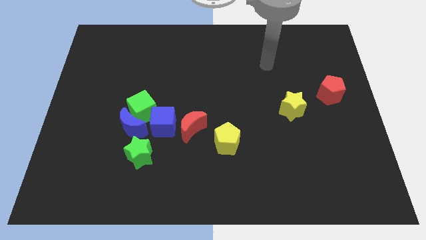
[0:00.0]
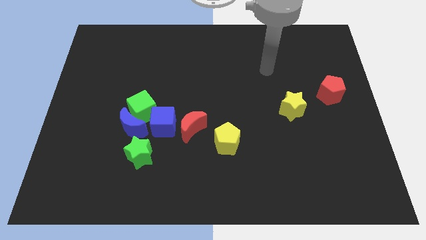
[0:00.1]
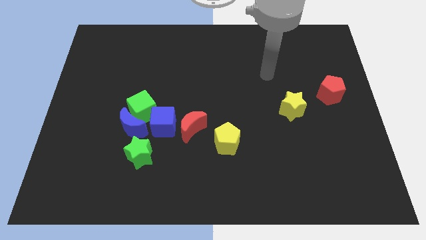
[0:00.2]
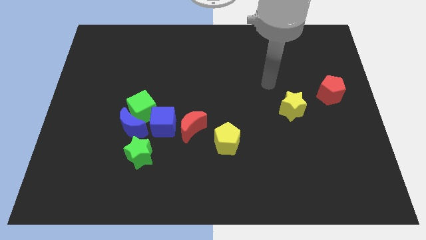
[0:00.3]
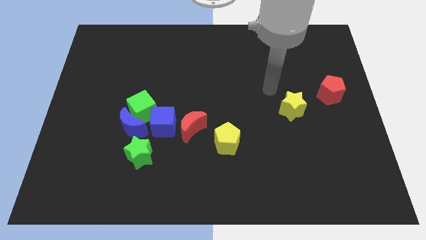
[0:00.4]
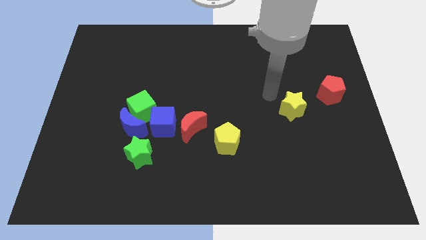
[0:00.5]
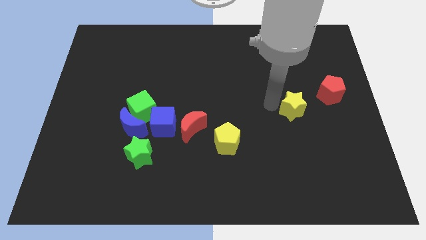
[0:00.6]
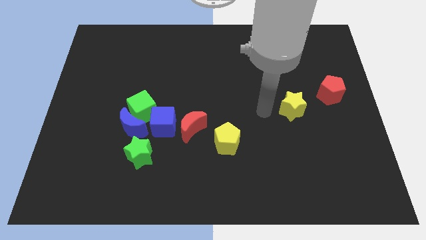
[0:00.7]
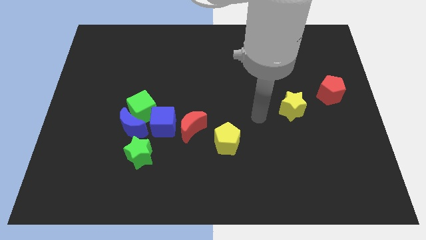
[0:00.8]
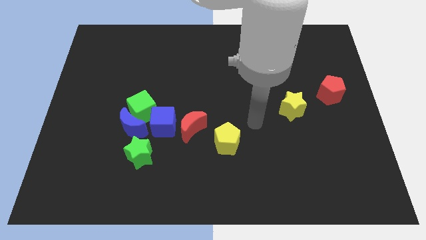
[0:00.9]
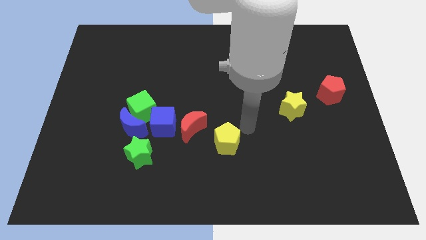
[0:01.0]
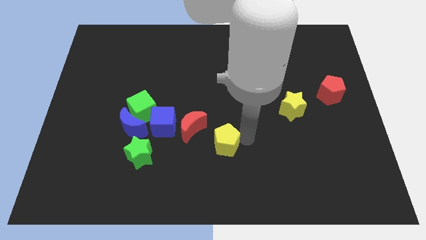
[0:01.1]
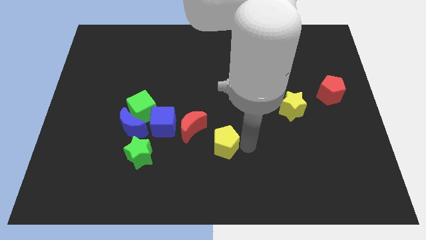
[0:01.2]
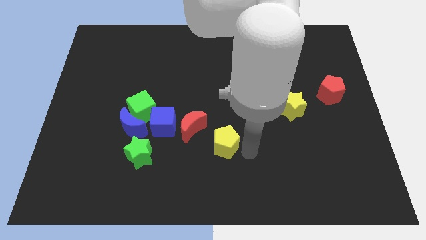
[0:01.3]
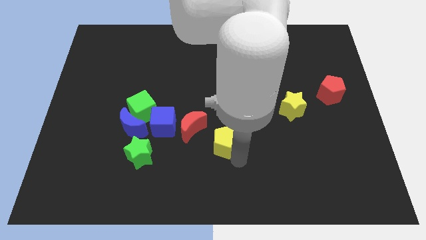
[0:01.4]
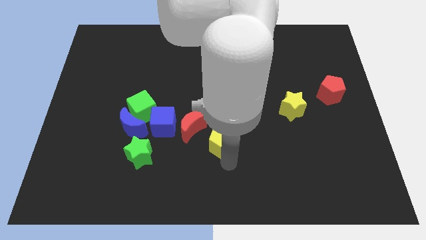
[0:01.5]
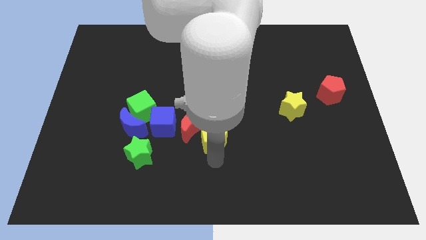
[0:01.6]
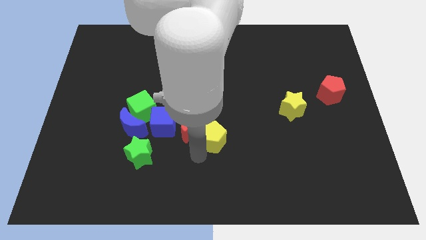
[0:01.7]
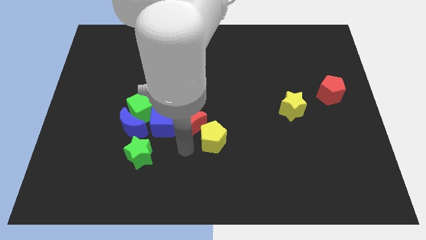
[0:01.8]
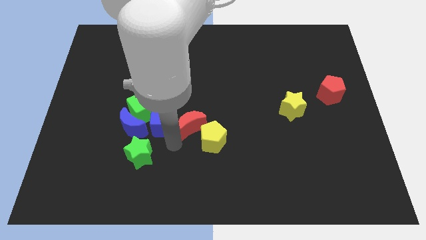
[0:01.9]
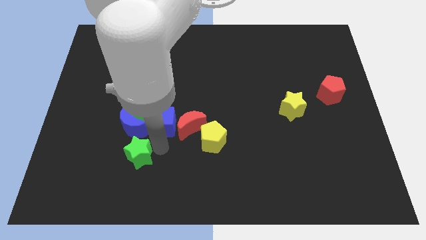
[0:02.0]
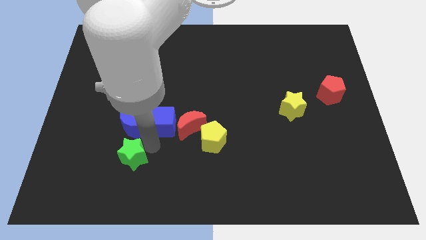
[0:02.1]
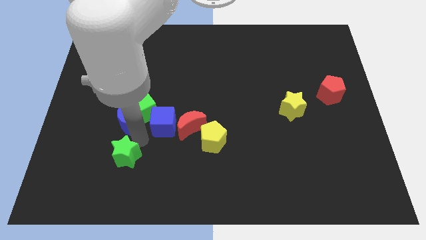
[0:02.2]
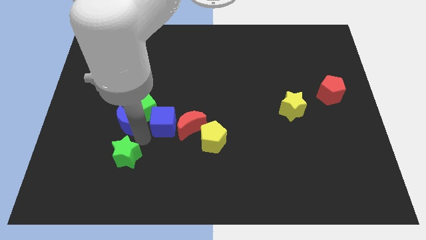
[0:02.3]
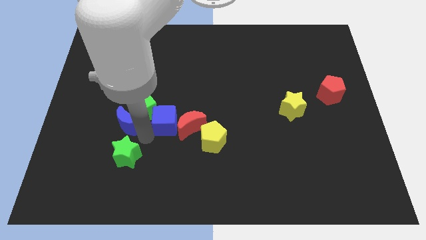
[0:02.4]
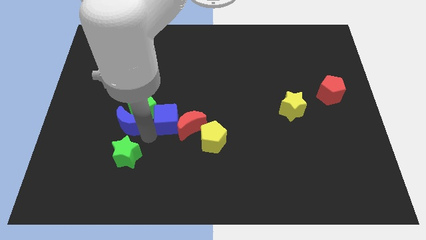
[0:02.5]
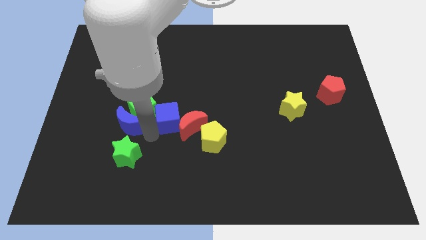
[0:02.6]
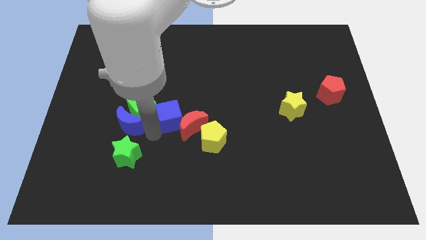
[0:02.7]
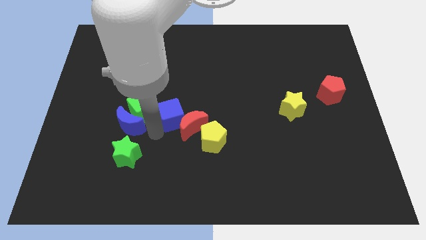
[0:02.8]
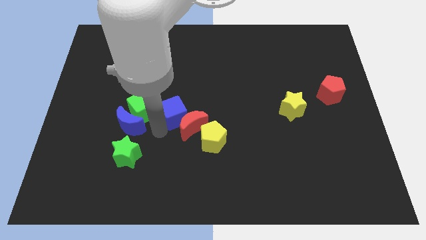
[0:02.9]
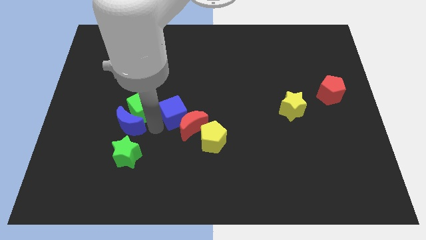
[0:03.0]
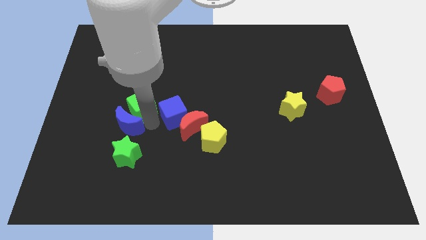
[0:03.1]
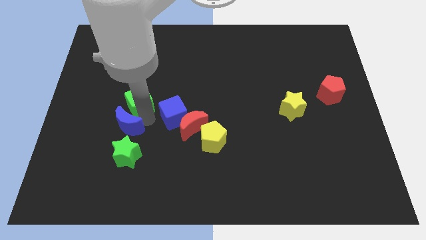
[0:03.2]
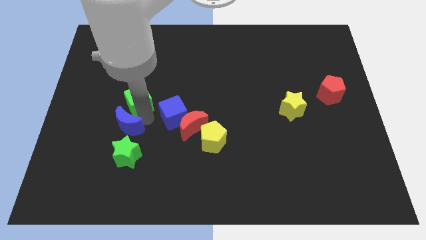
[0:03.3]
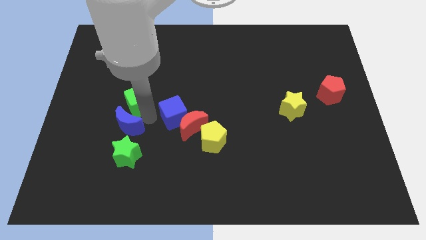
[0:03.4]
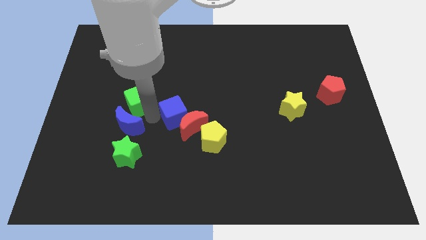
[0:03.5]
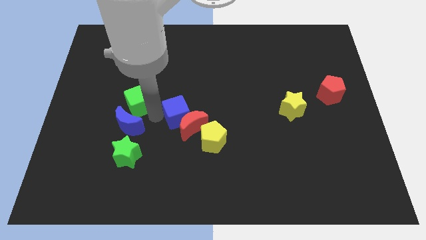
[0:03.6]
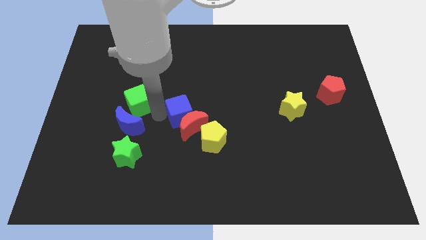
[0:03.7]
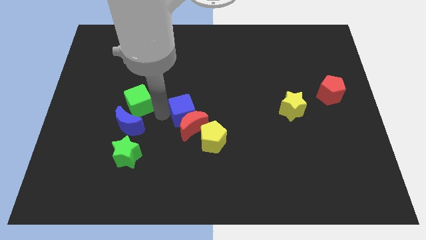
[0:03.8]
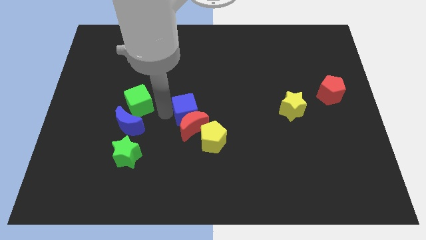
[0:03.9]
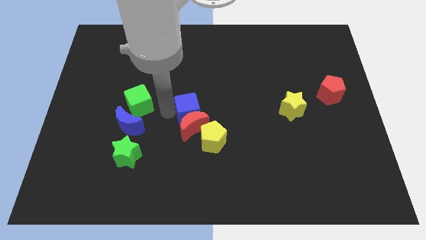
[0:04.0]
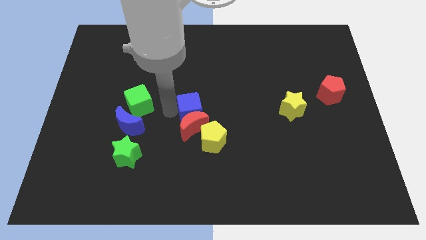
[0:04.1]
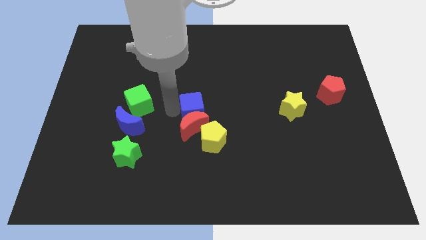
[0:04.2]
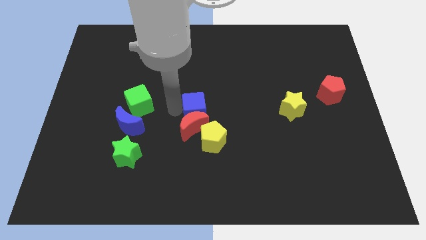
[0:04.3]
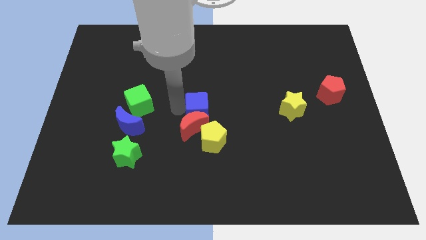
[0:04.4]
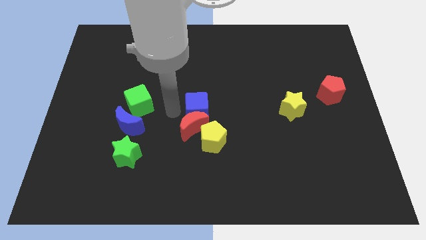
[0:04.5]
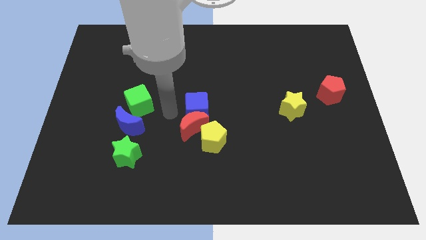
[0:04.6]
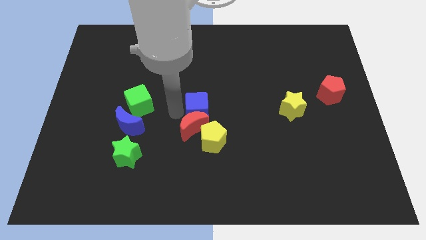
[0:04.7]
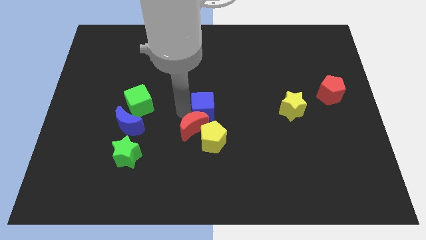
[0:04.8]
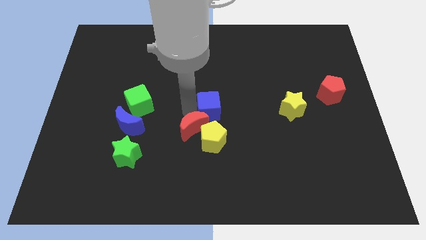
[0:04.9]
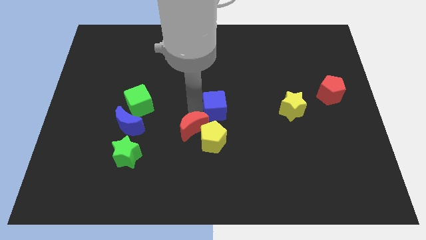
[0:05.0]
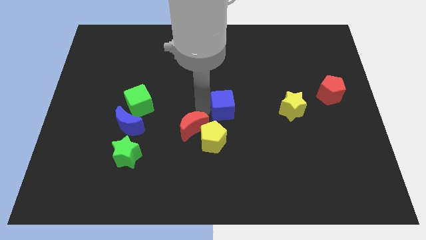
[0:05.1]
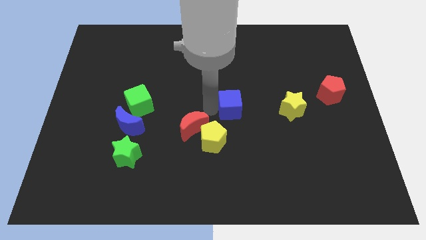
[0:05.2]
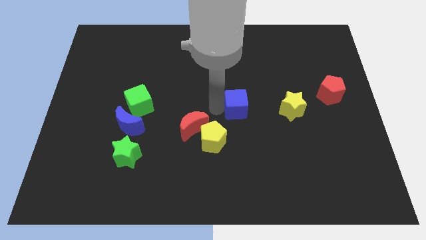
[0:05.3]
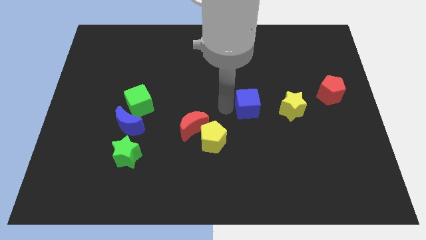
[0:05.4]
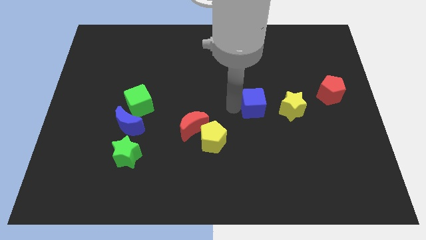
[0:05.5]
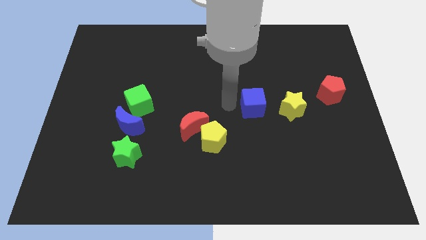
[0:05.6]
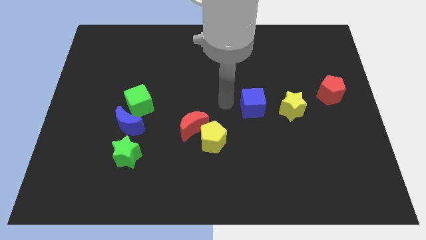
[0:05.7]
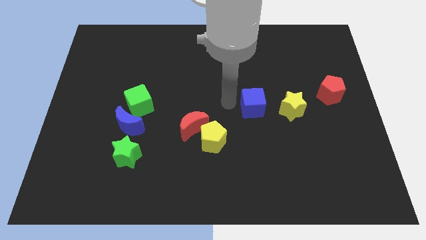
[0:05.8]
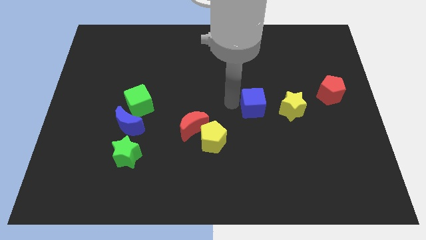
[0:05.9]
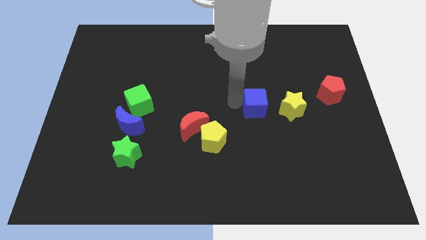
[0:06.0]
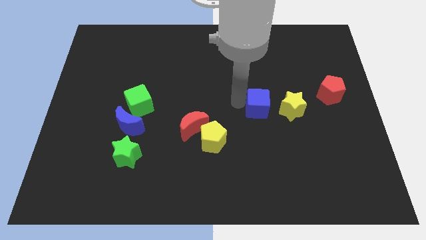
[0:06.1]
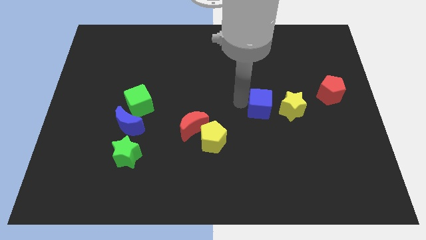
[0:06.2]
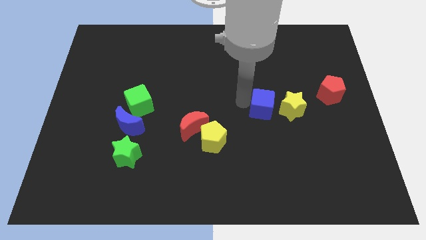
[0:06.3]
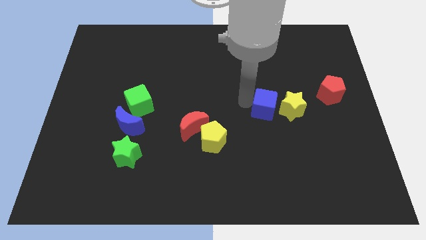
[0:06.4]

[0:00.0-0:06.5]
slide the blue cube towards the yellow star

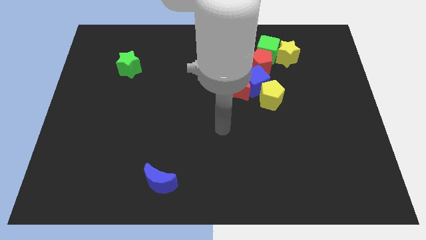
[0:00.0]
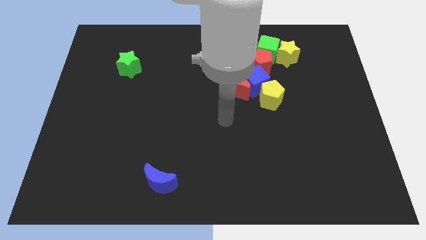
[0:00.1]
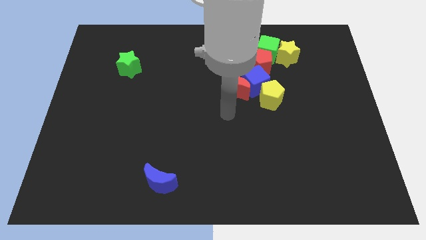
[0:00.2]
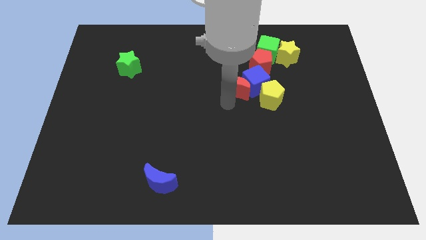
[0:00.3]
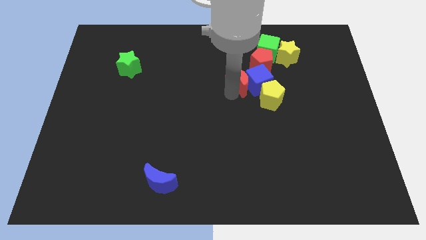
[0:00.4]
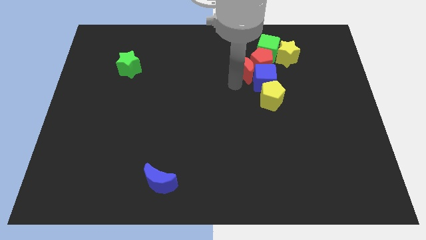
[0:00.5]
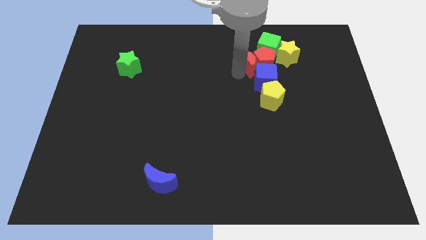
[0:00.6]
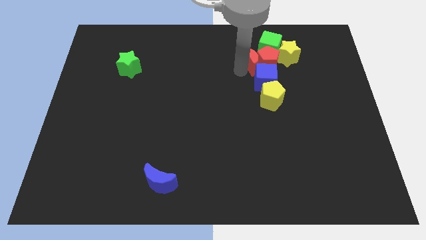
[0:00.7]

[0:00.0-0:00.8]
push the red pentagon towards the yellow star
